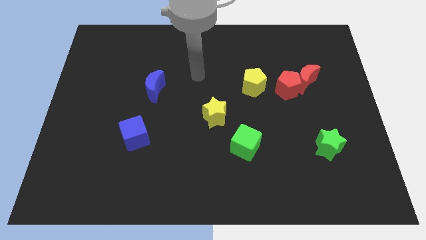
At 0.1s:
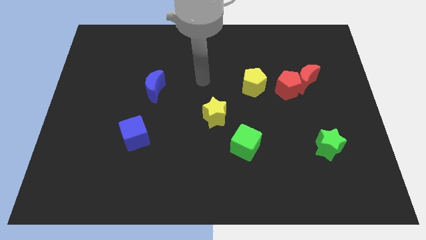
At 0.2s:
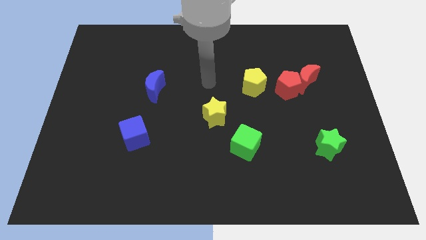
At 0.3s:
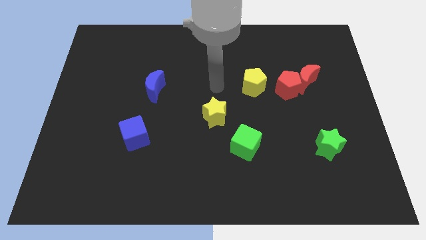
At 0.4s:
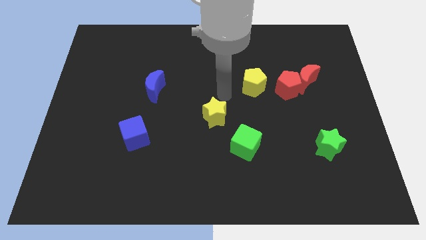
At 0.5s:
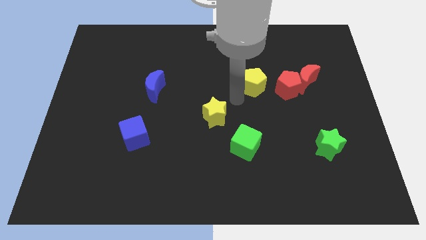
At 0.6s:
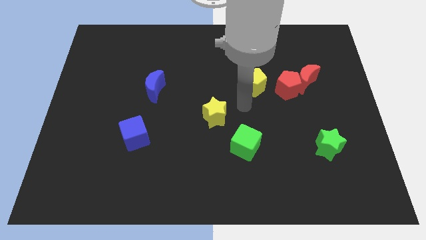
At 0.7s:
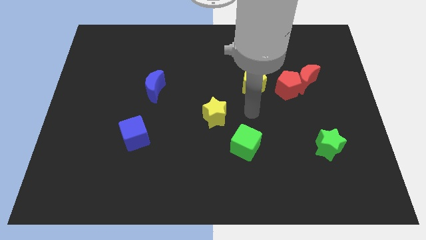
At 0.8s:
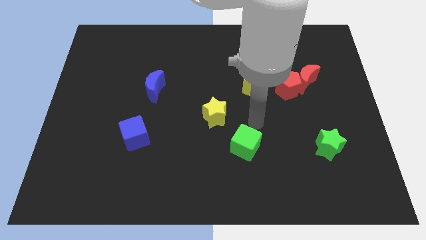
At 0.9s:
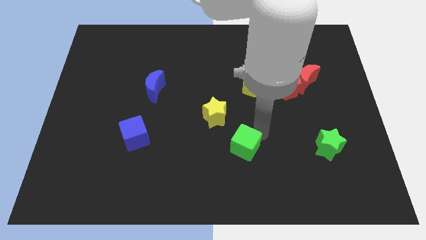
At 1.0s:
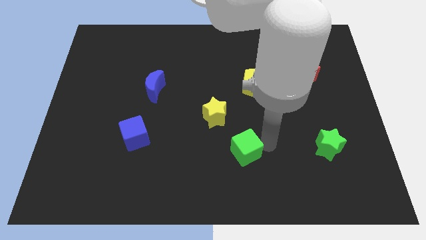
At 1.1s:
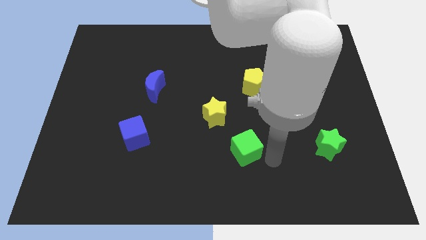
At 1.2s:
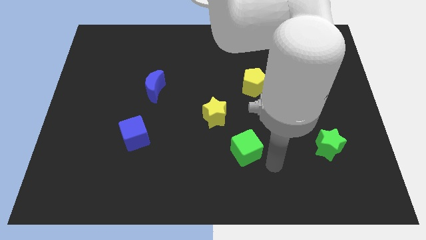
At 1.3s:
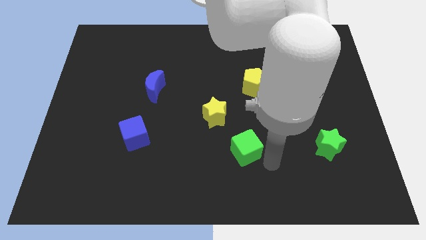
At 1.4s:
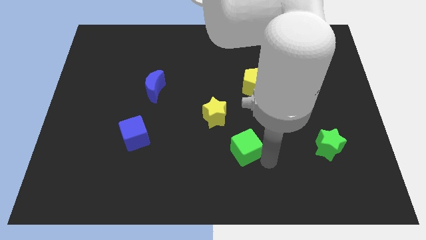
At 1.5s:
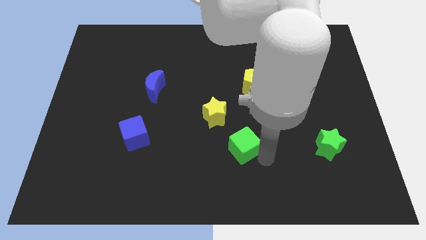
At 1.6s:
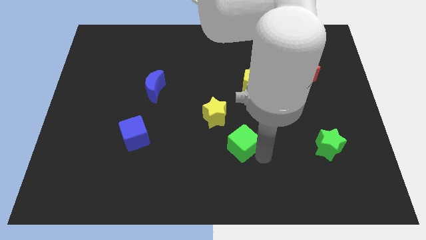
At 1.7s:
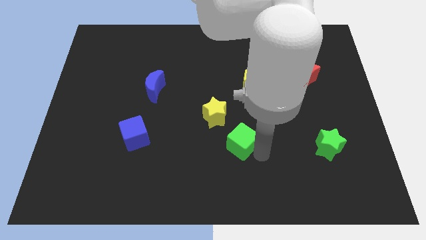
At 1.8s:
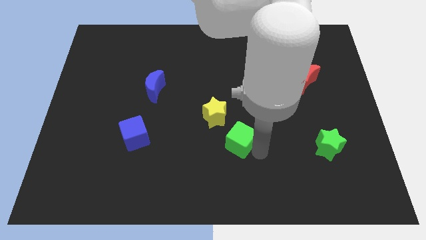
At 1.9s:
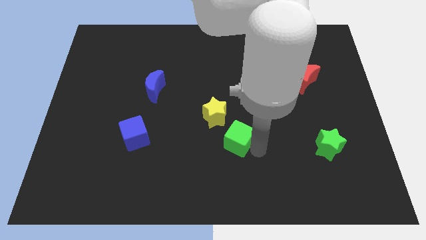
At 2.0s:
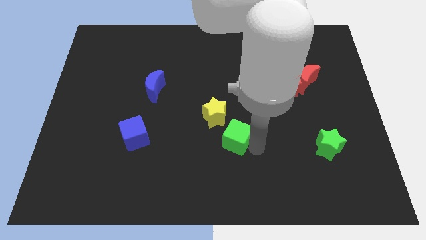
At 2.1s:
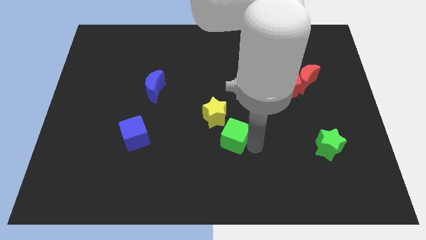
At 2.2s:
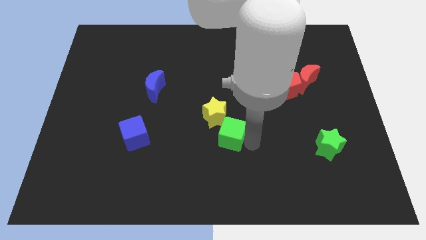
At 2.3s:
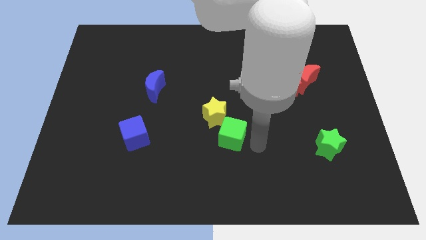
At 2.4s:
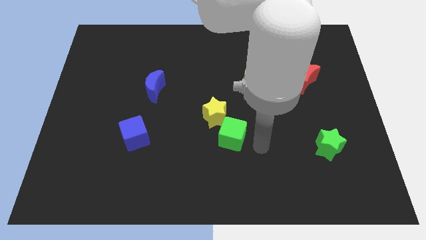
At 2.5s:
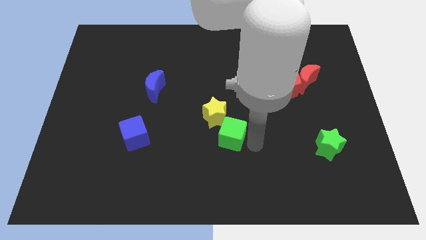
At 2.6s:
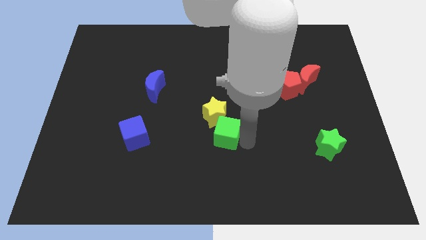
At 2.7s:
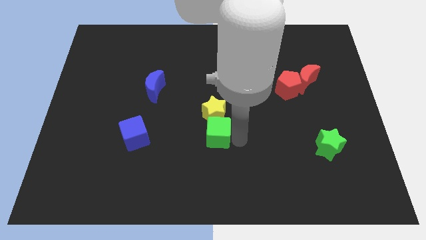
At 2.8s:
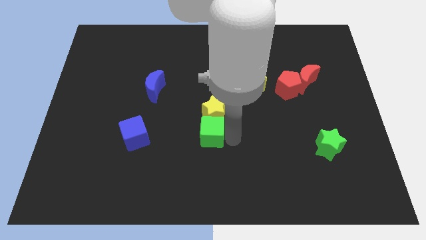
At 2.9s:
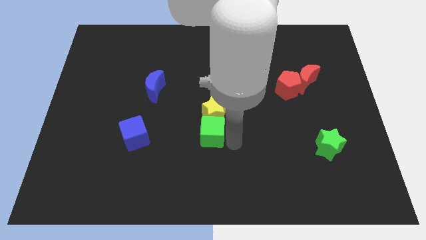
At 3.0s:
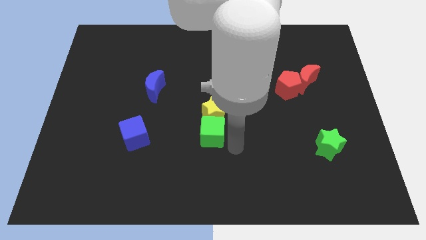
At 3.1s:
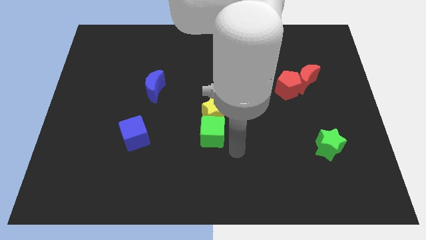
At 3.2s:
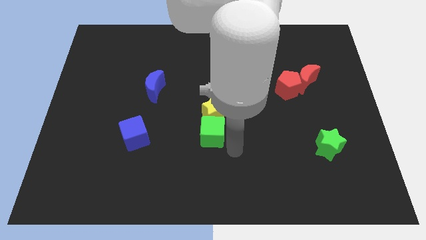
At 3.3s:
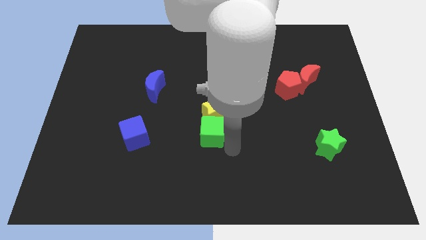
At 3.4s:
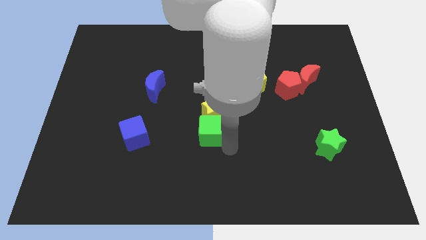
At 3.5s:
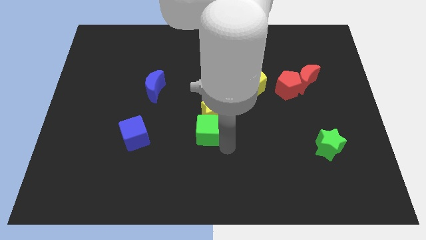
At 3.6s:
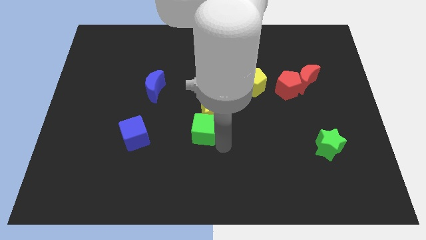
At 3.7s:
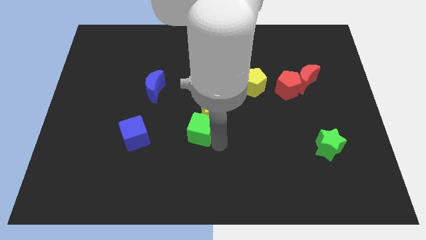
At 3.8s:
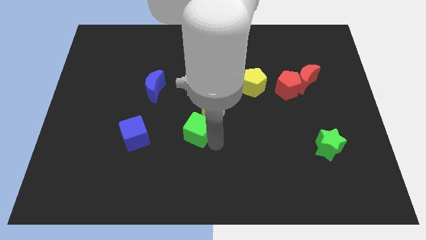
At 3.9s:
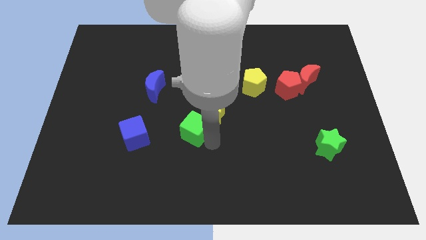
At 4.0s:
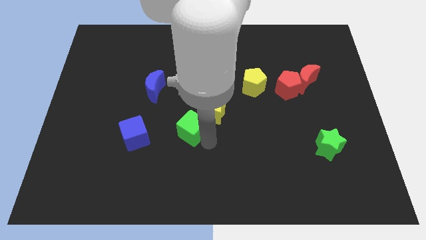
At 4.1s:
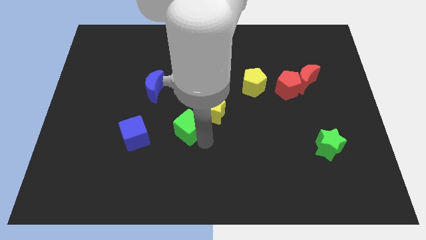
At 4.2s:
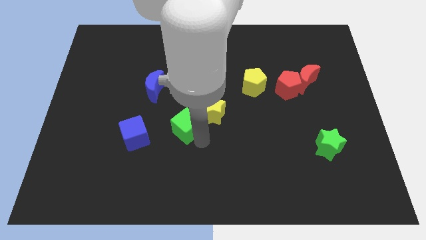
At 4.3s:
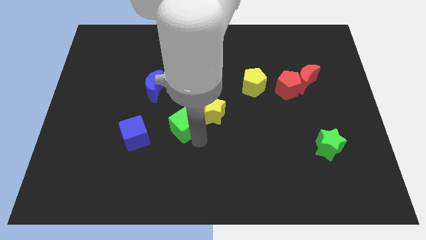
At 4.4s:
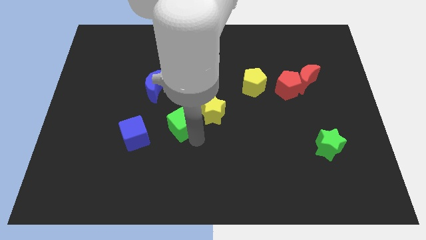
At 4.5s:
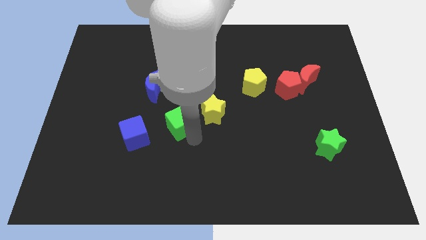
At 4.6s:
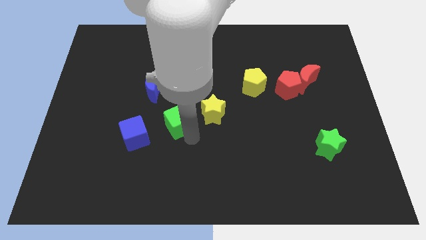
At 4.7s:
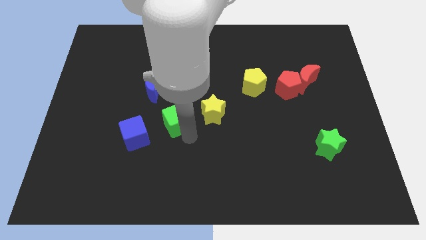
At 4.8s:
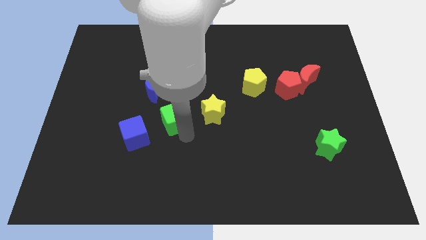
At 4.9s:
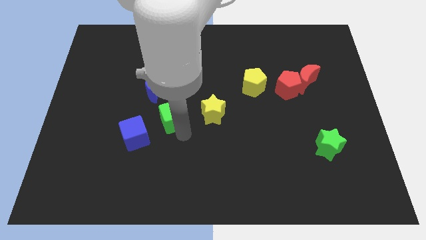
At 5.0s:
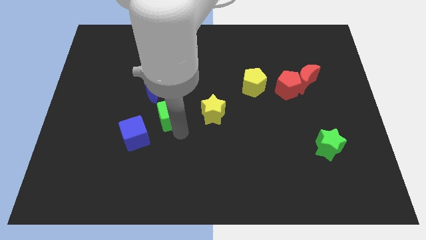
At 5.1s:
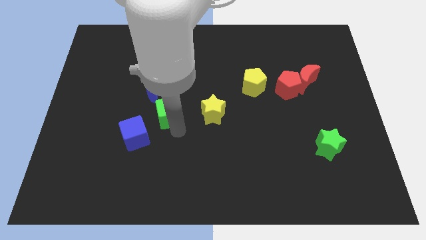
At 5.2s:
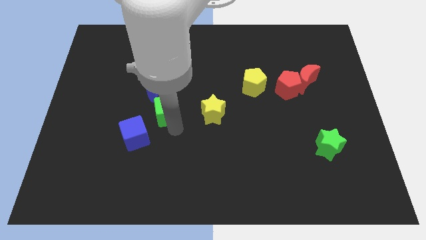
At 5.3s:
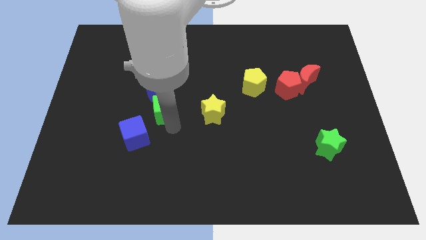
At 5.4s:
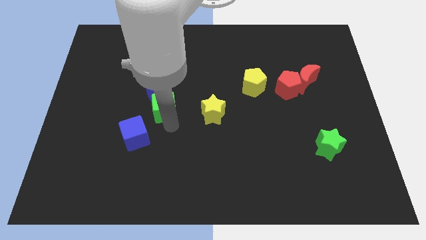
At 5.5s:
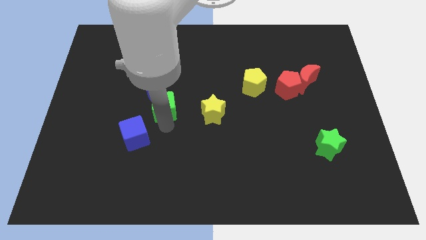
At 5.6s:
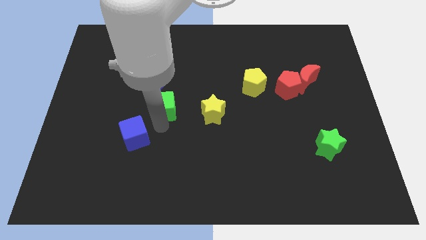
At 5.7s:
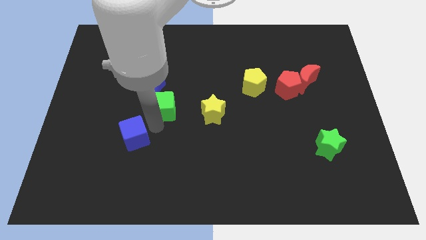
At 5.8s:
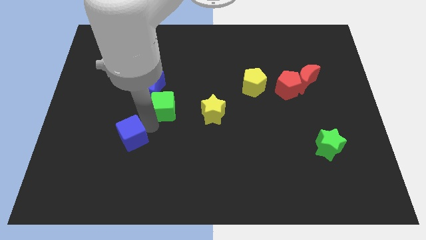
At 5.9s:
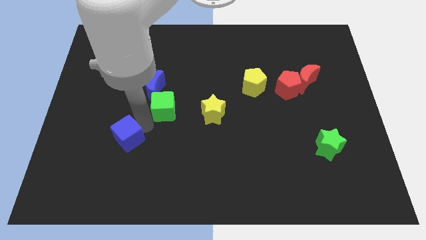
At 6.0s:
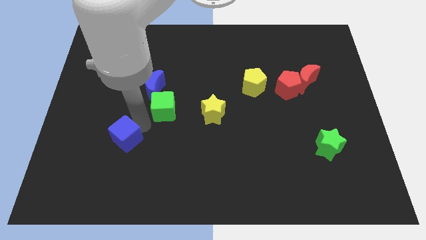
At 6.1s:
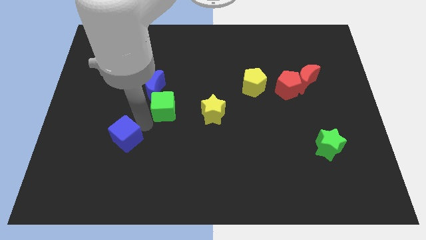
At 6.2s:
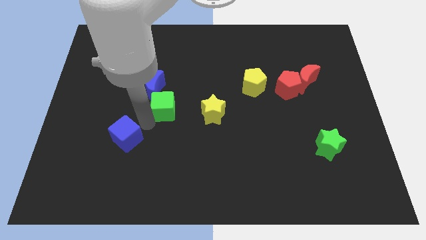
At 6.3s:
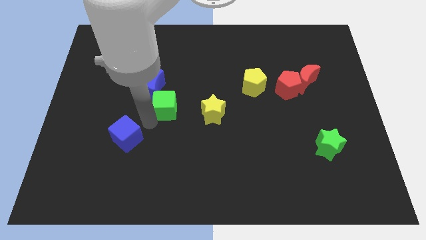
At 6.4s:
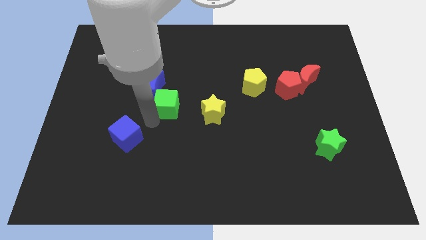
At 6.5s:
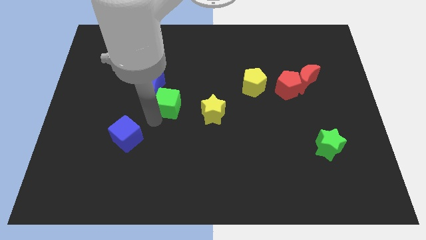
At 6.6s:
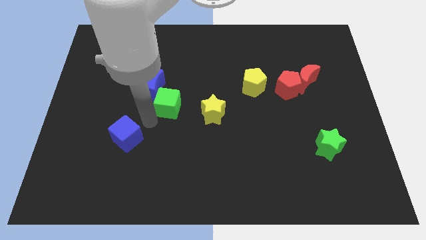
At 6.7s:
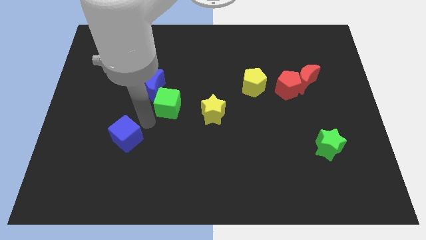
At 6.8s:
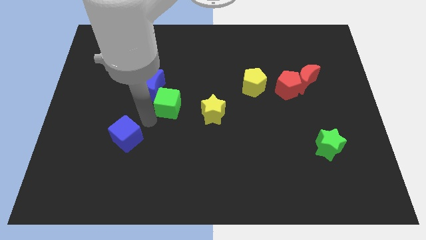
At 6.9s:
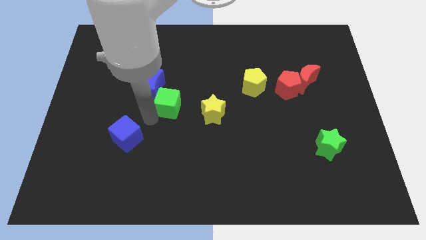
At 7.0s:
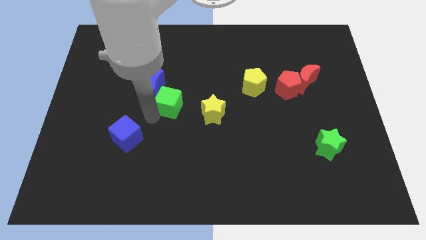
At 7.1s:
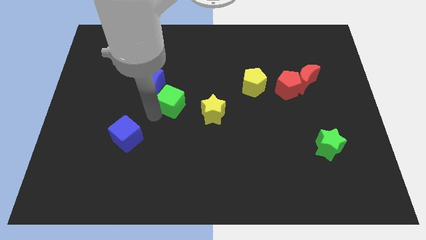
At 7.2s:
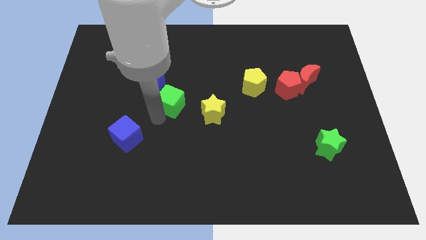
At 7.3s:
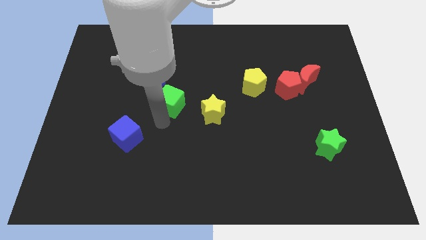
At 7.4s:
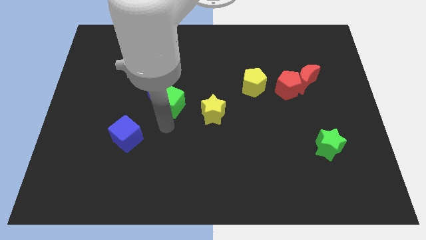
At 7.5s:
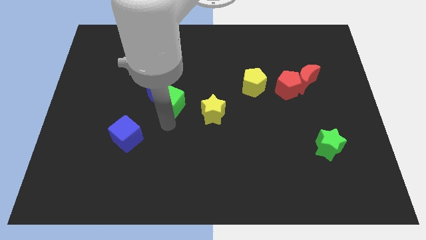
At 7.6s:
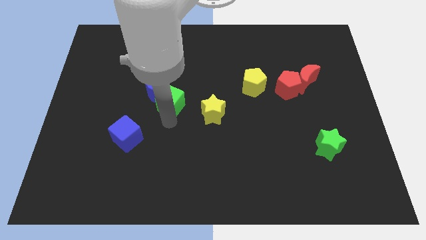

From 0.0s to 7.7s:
slide the green cube diagonally upwards and left
